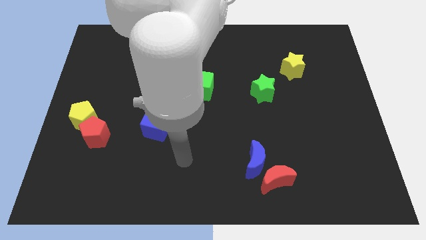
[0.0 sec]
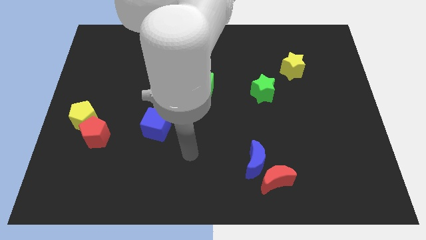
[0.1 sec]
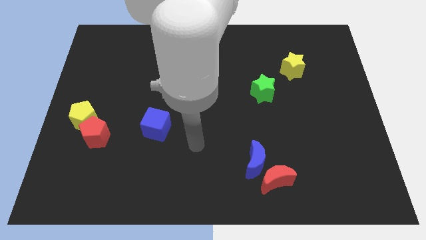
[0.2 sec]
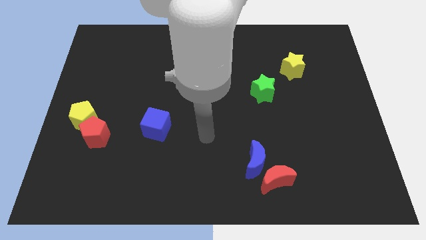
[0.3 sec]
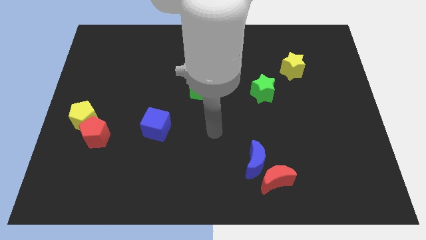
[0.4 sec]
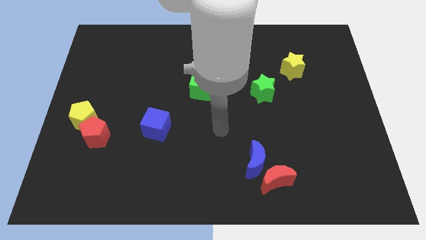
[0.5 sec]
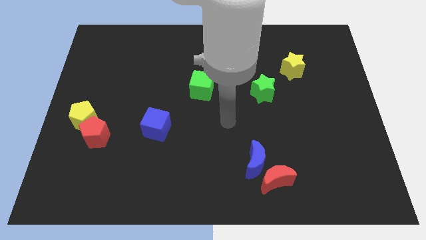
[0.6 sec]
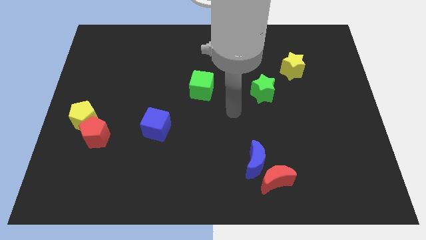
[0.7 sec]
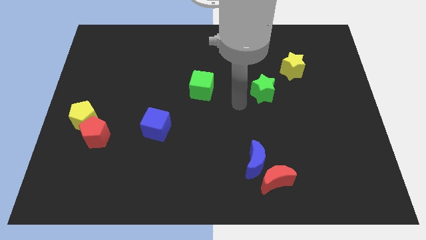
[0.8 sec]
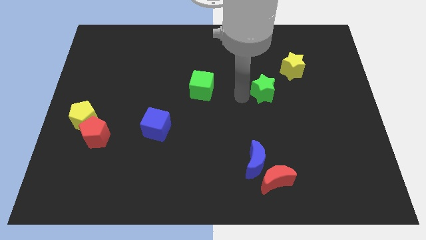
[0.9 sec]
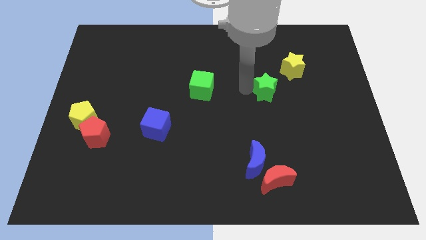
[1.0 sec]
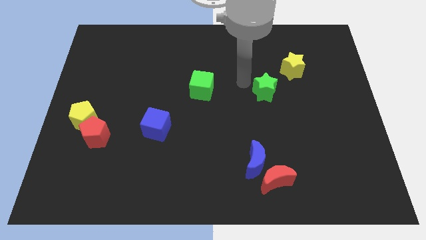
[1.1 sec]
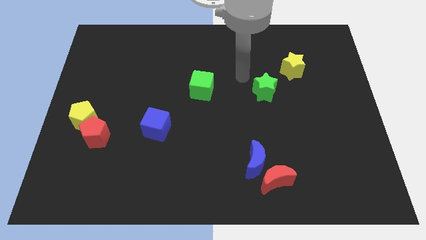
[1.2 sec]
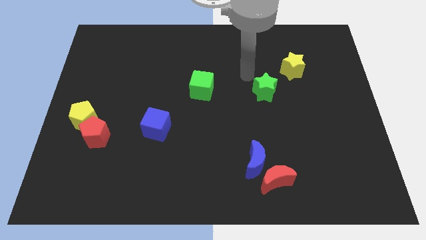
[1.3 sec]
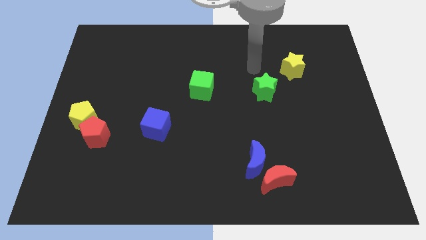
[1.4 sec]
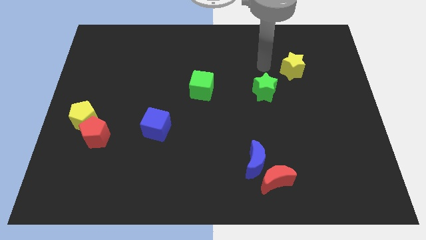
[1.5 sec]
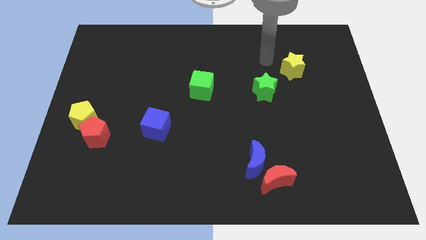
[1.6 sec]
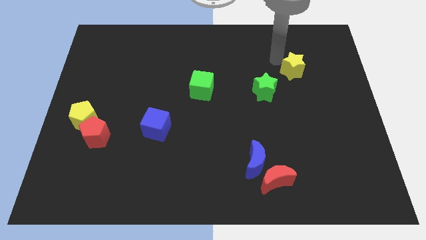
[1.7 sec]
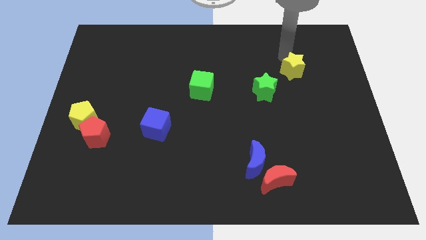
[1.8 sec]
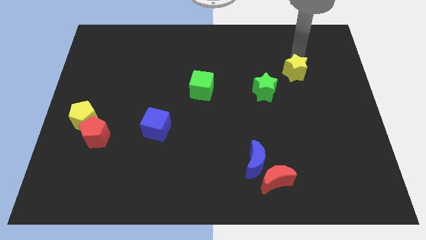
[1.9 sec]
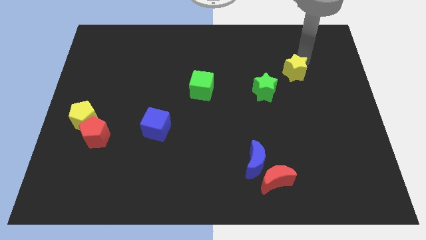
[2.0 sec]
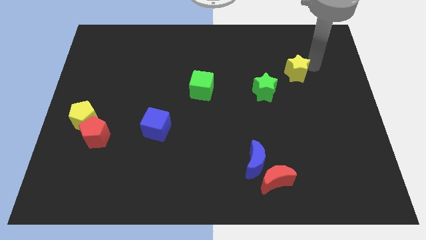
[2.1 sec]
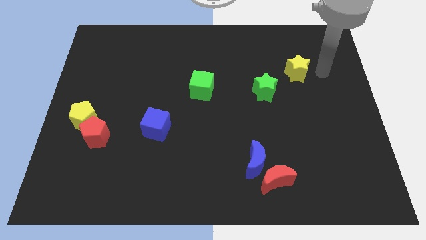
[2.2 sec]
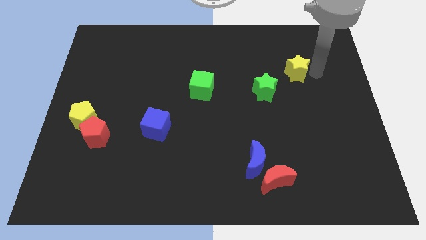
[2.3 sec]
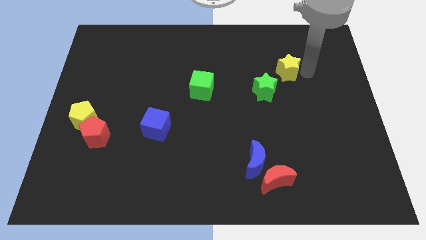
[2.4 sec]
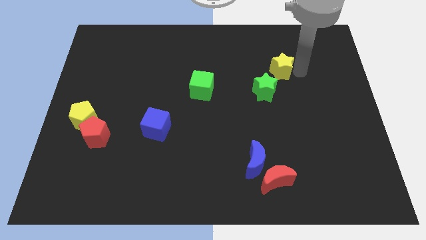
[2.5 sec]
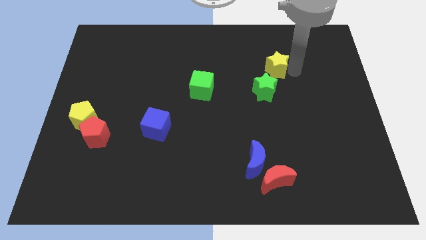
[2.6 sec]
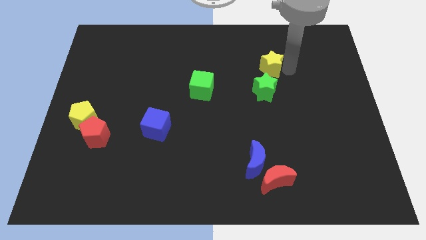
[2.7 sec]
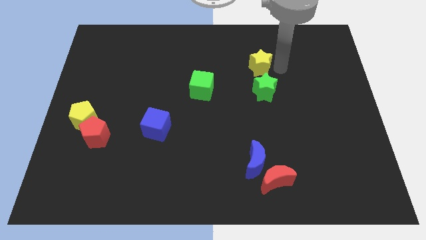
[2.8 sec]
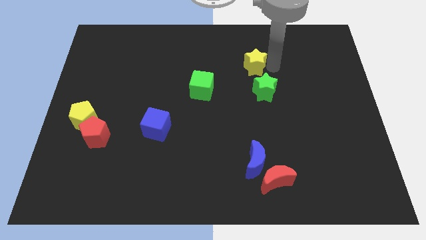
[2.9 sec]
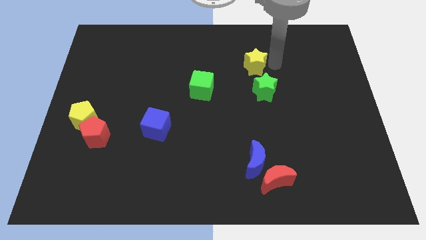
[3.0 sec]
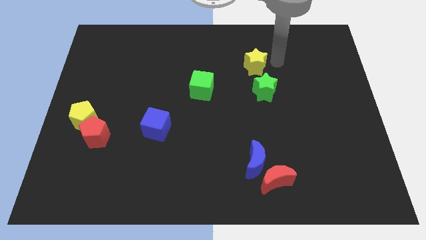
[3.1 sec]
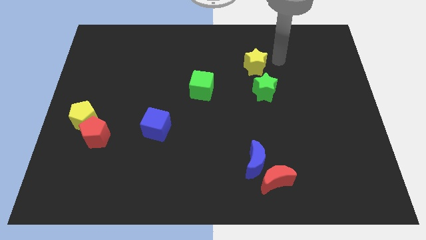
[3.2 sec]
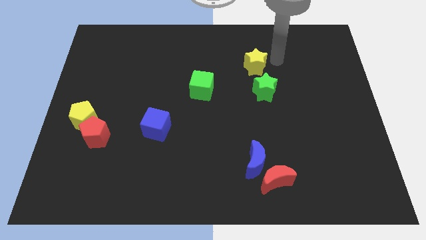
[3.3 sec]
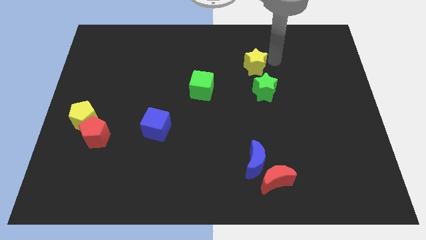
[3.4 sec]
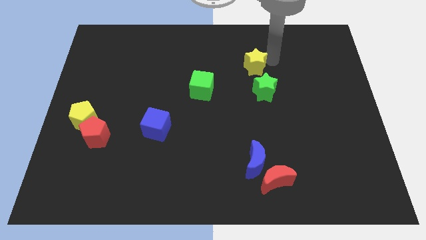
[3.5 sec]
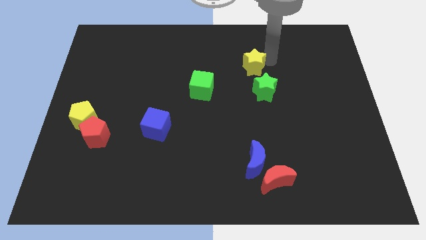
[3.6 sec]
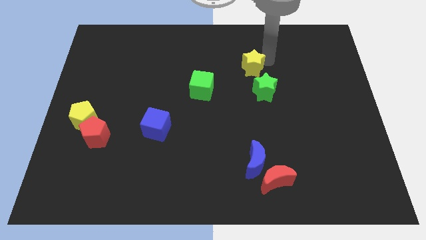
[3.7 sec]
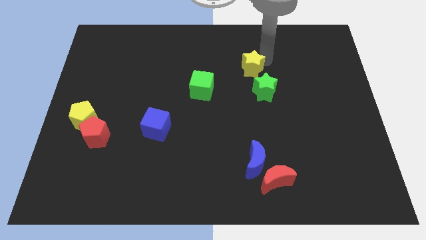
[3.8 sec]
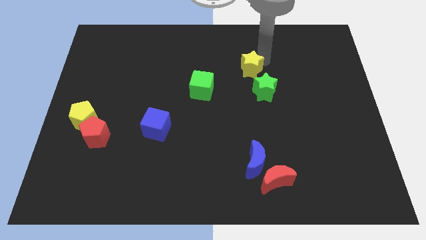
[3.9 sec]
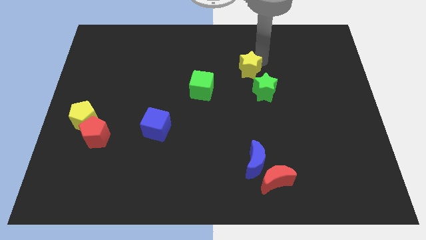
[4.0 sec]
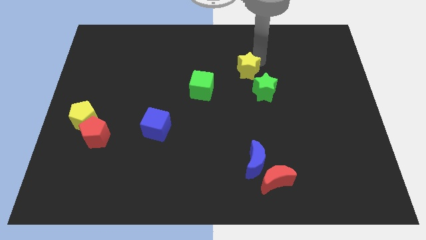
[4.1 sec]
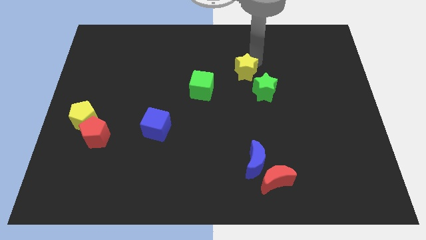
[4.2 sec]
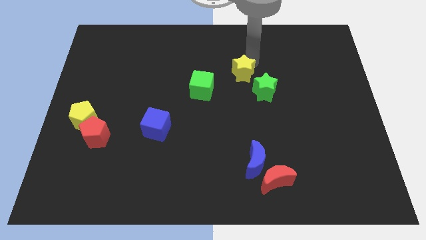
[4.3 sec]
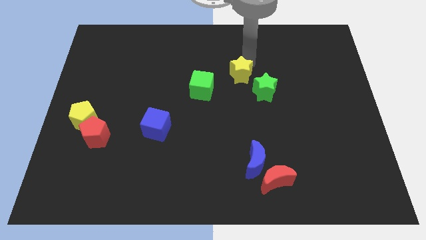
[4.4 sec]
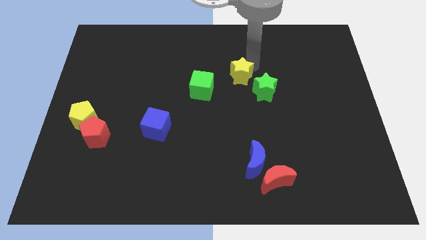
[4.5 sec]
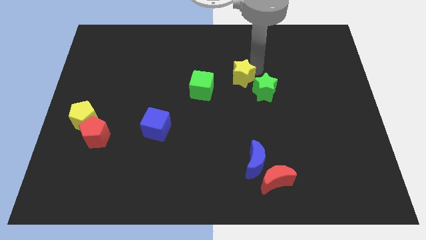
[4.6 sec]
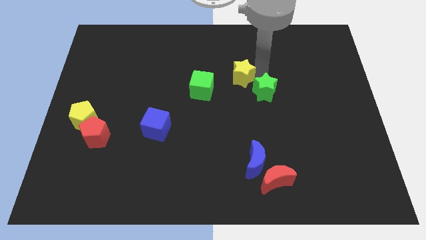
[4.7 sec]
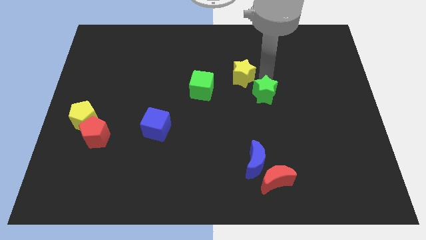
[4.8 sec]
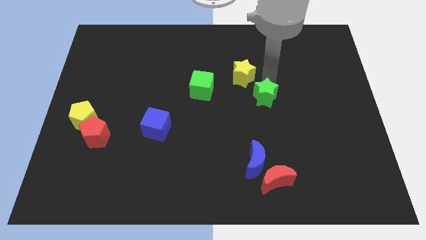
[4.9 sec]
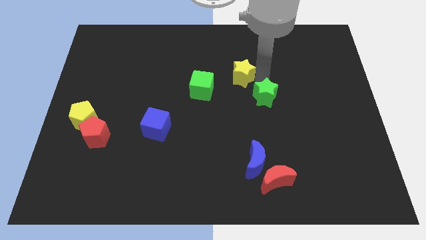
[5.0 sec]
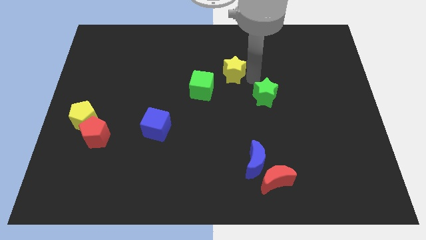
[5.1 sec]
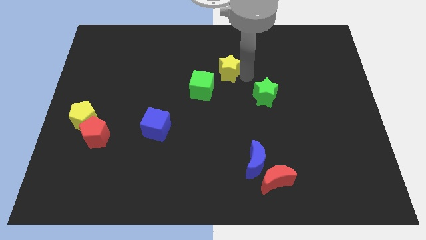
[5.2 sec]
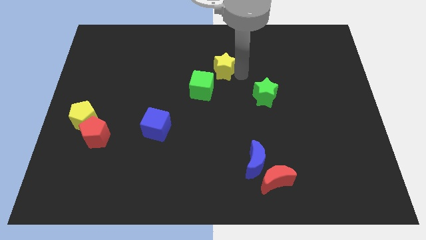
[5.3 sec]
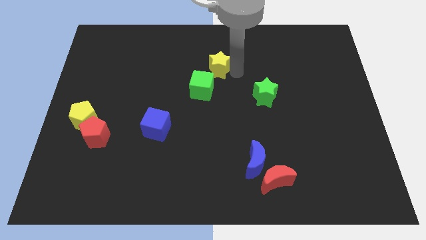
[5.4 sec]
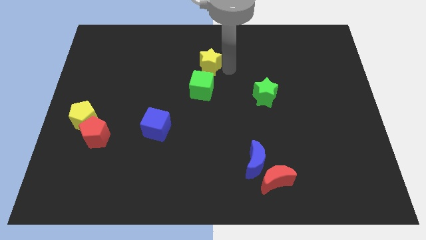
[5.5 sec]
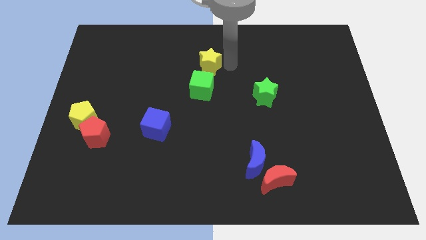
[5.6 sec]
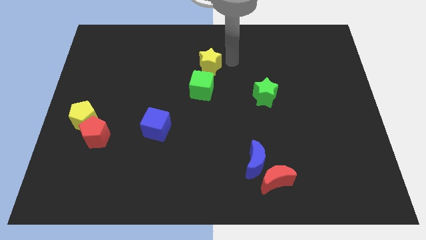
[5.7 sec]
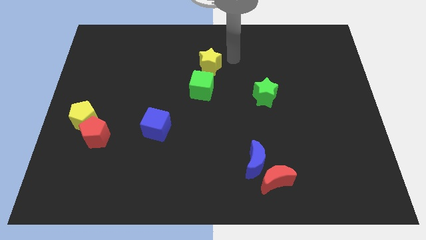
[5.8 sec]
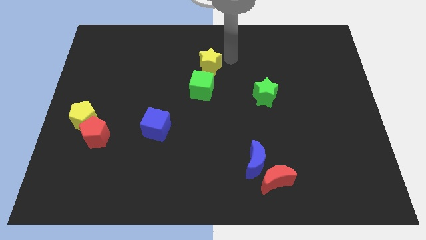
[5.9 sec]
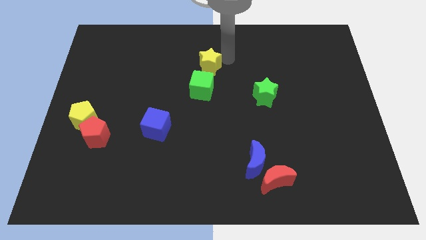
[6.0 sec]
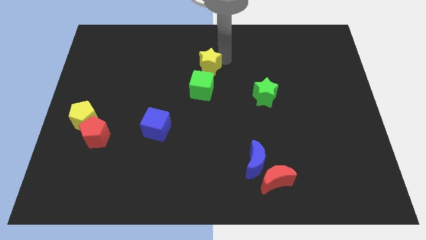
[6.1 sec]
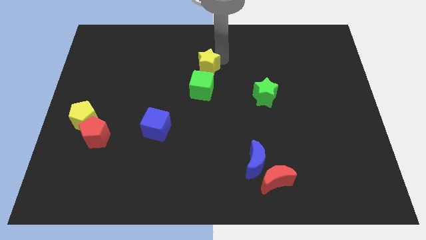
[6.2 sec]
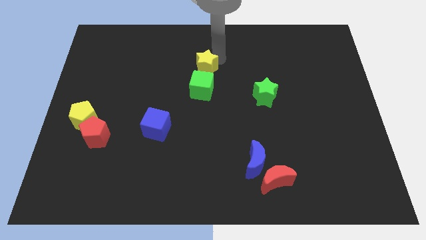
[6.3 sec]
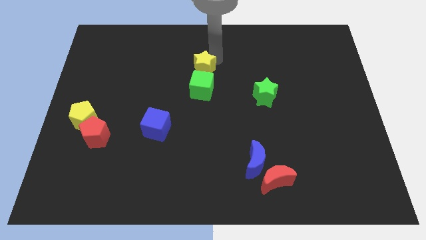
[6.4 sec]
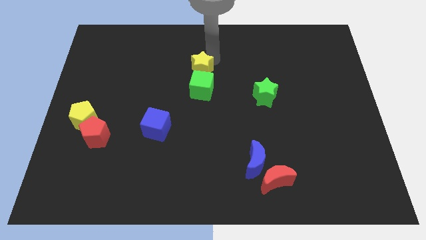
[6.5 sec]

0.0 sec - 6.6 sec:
move the yellow star diagonally up and to the left of the green cube
